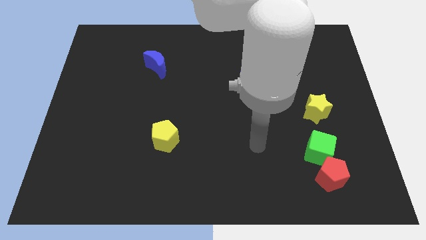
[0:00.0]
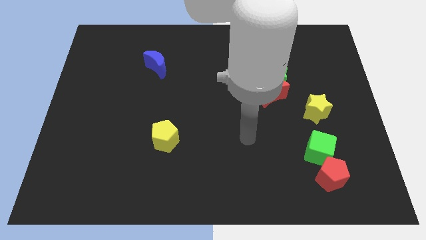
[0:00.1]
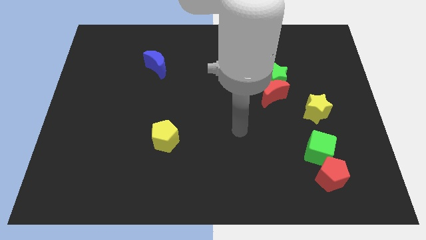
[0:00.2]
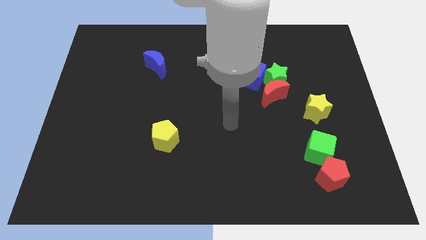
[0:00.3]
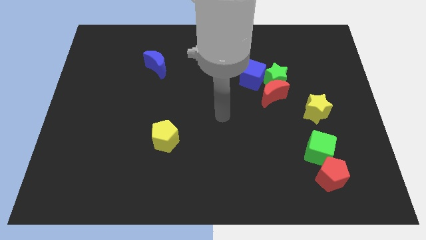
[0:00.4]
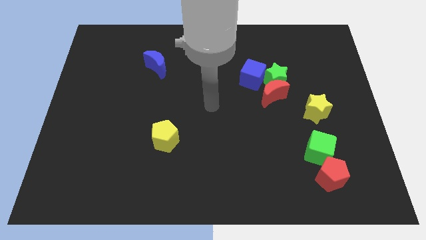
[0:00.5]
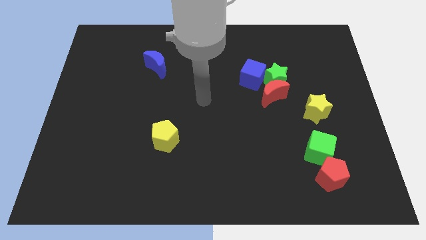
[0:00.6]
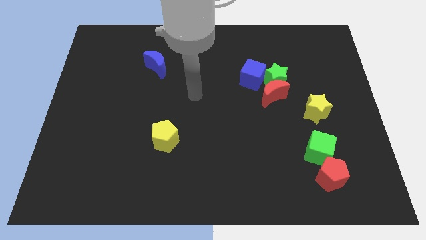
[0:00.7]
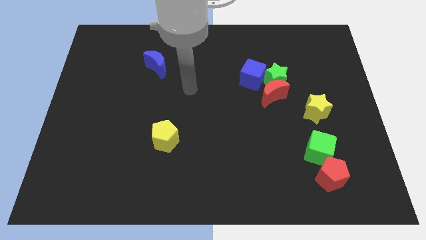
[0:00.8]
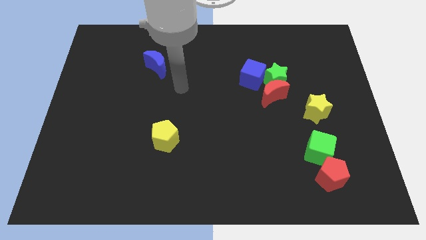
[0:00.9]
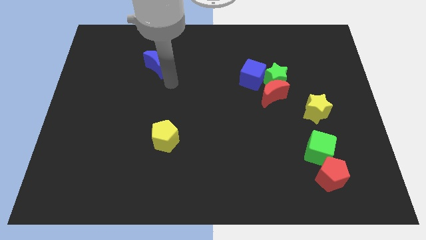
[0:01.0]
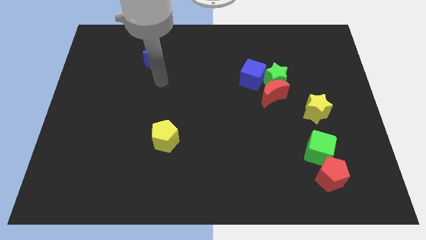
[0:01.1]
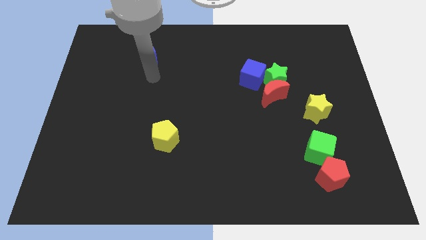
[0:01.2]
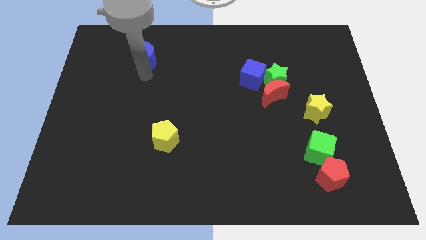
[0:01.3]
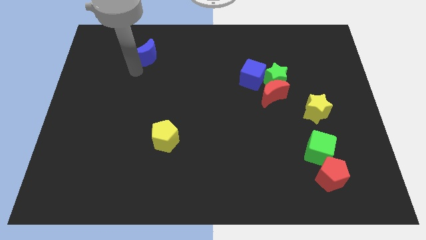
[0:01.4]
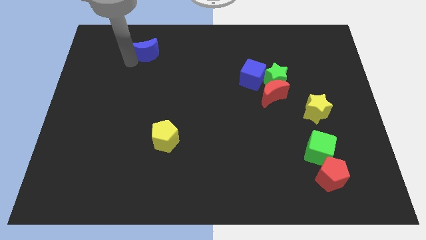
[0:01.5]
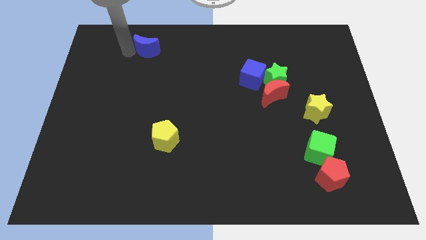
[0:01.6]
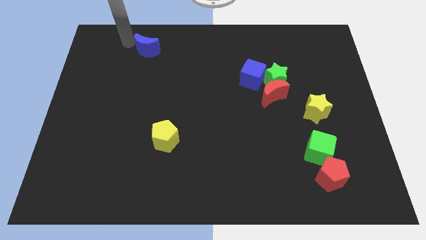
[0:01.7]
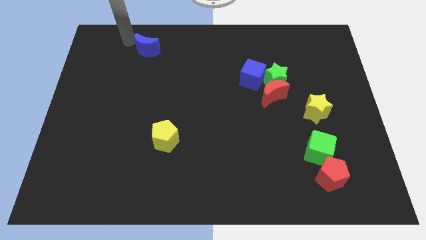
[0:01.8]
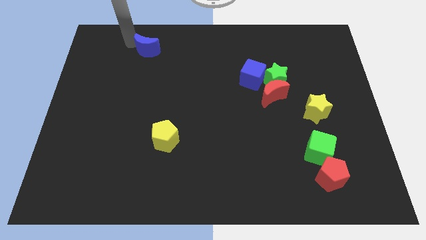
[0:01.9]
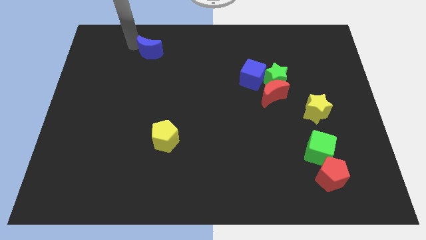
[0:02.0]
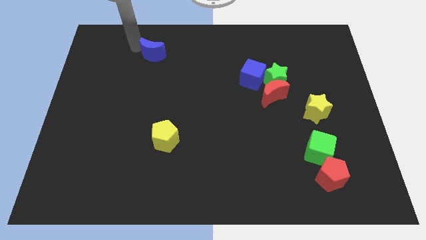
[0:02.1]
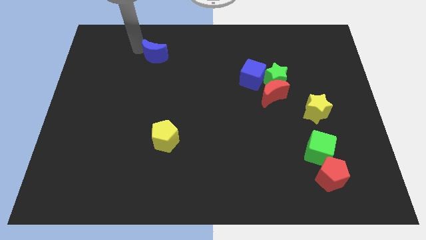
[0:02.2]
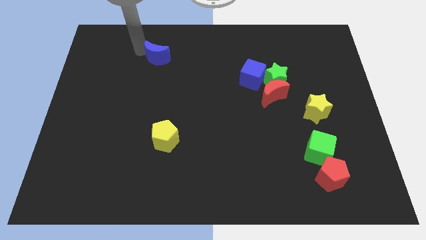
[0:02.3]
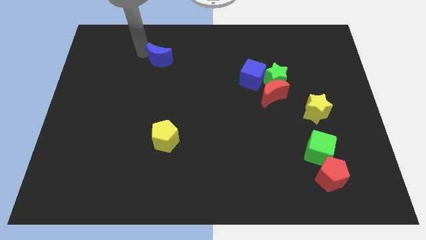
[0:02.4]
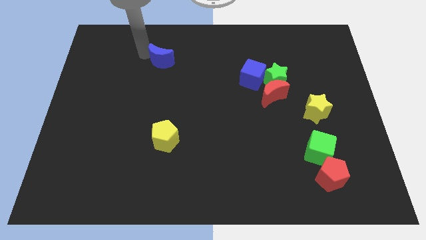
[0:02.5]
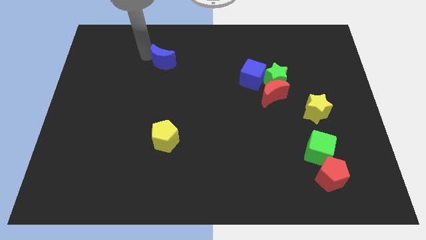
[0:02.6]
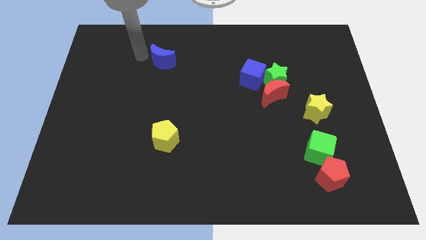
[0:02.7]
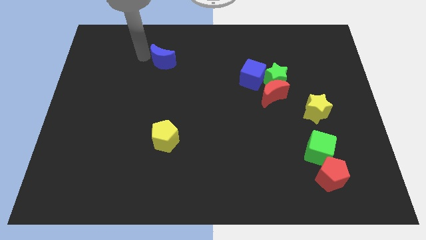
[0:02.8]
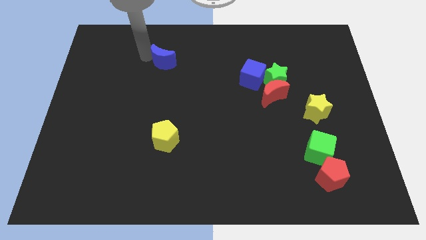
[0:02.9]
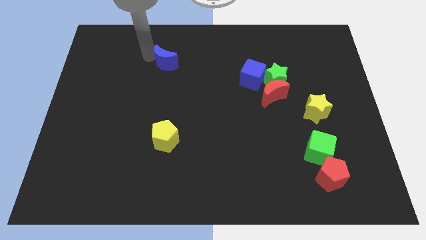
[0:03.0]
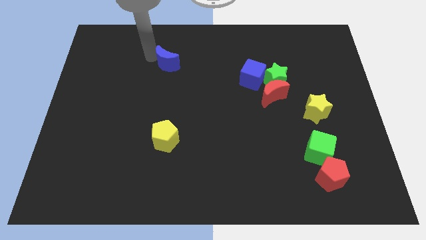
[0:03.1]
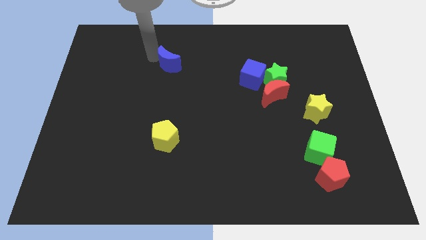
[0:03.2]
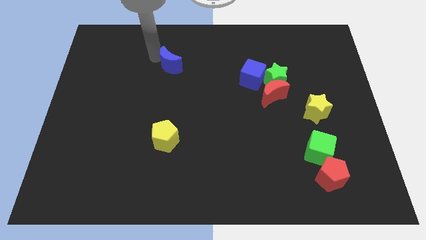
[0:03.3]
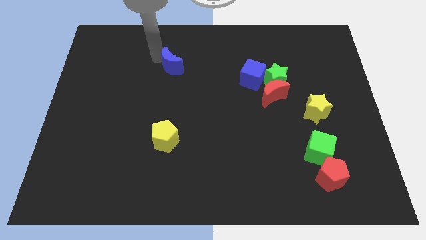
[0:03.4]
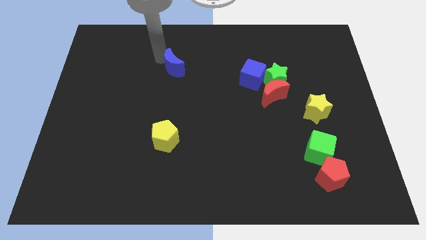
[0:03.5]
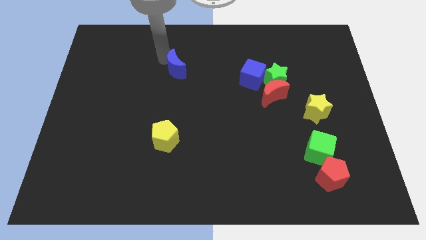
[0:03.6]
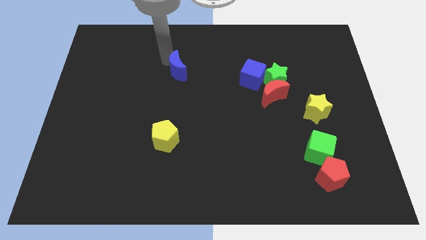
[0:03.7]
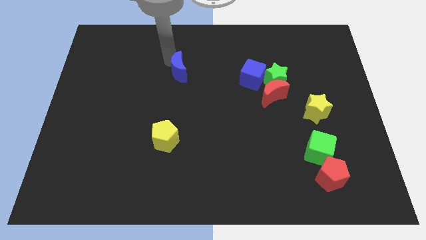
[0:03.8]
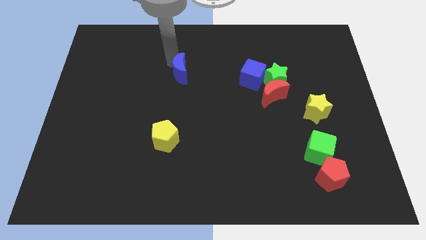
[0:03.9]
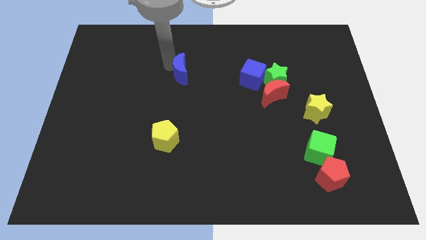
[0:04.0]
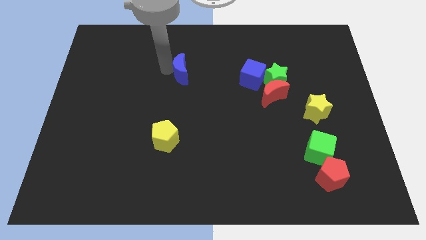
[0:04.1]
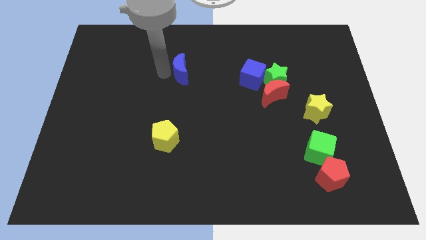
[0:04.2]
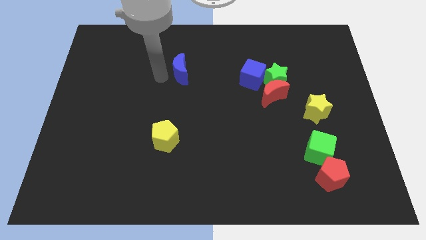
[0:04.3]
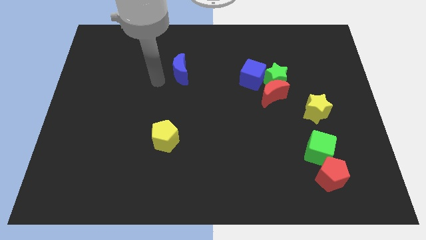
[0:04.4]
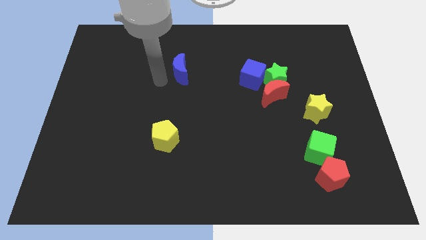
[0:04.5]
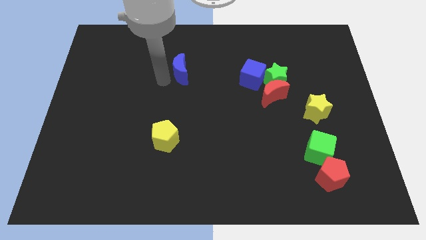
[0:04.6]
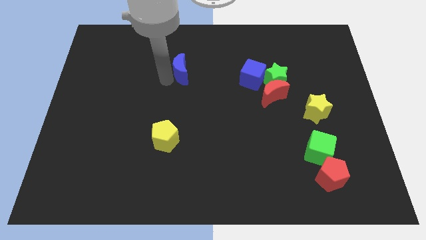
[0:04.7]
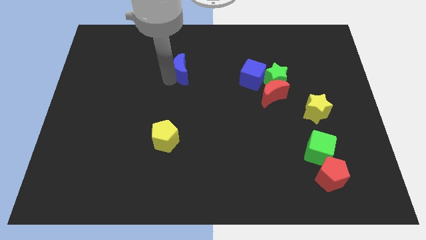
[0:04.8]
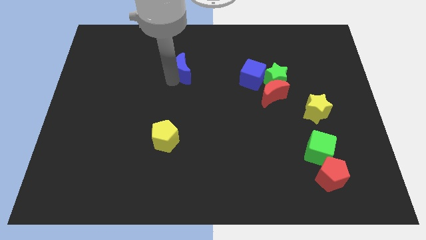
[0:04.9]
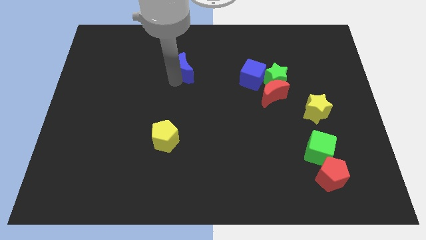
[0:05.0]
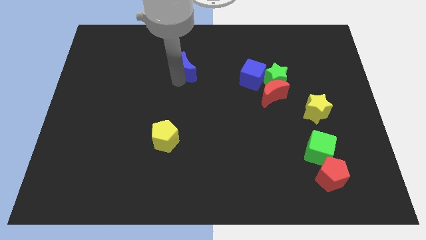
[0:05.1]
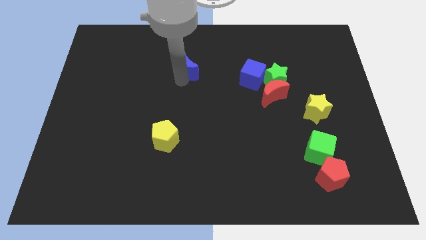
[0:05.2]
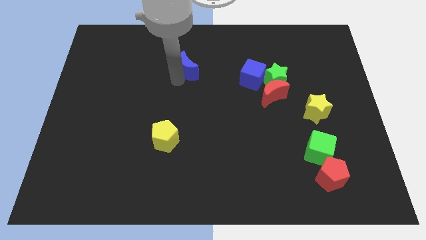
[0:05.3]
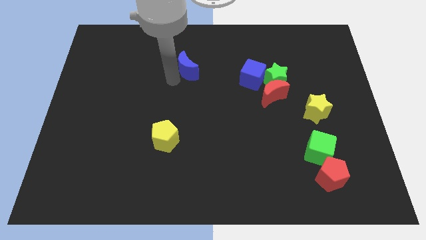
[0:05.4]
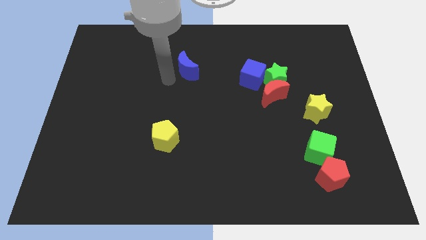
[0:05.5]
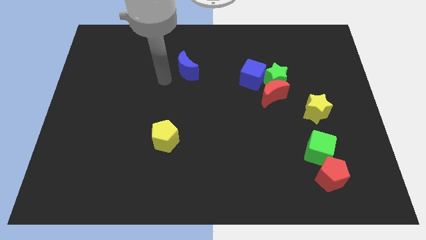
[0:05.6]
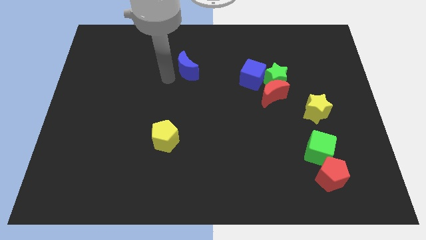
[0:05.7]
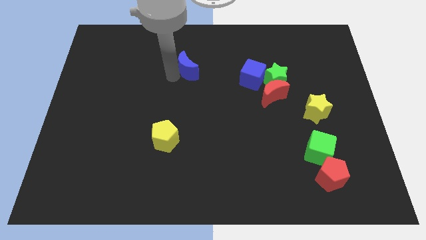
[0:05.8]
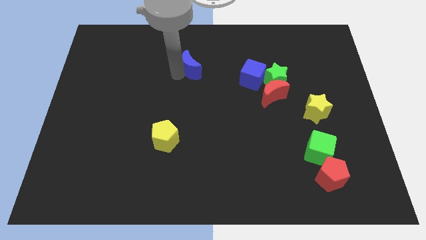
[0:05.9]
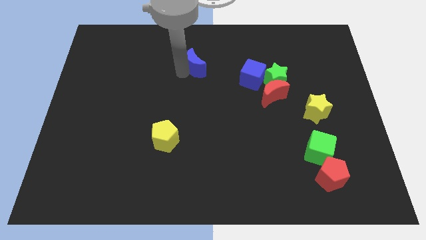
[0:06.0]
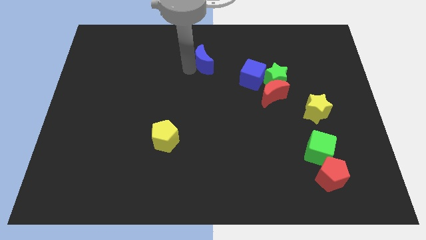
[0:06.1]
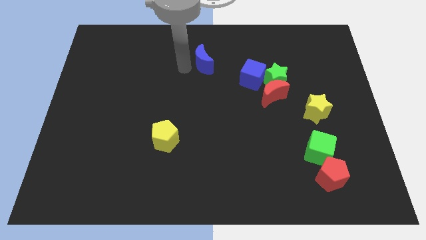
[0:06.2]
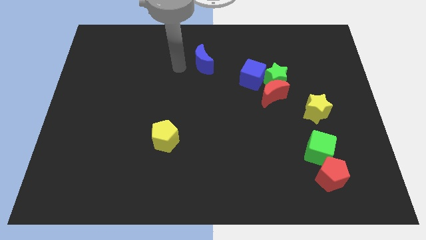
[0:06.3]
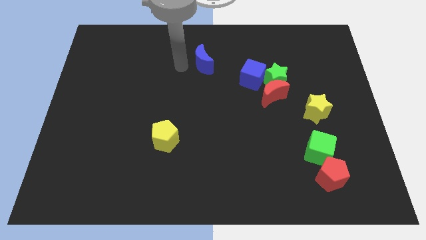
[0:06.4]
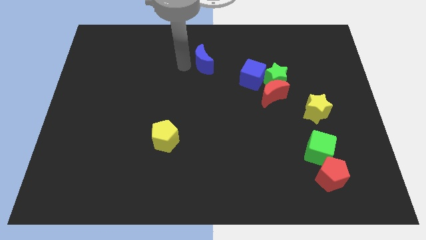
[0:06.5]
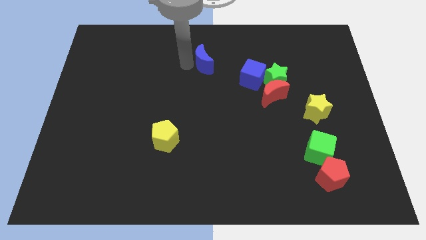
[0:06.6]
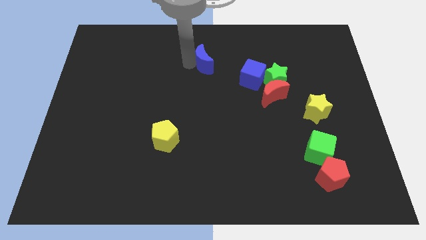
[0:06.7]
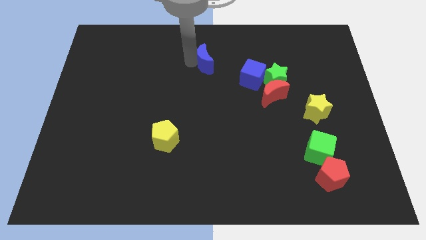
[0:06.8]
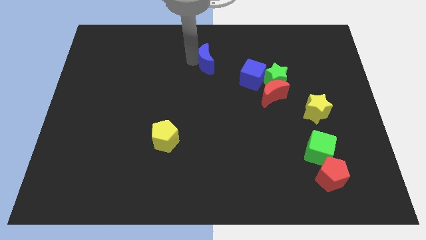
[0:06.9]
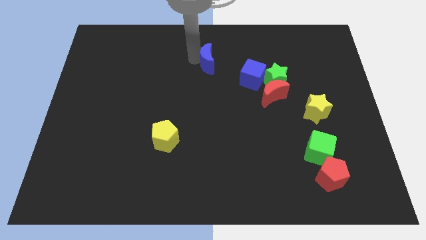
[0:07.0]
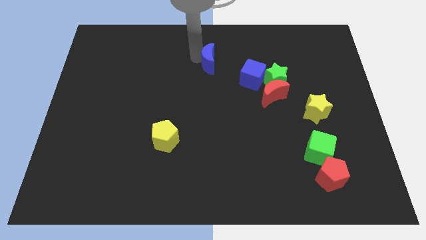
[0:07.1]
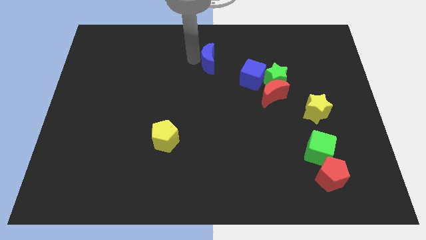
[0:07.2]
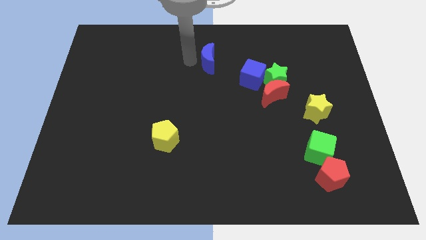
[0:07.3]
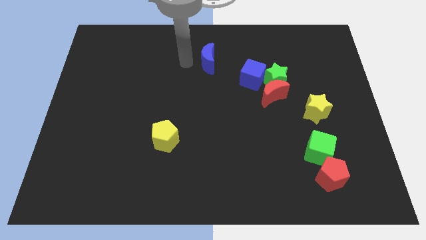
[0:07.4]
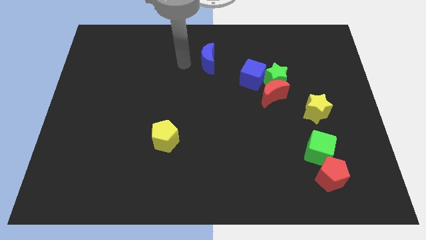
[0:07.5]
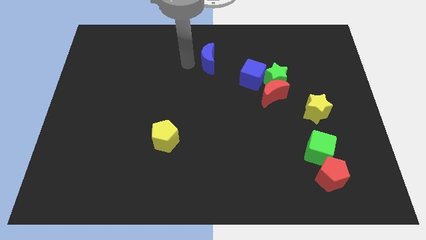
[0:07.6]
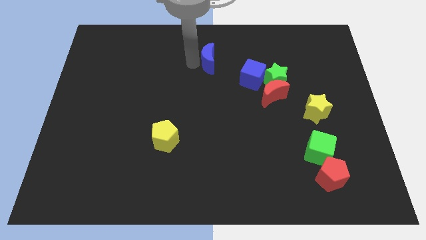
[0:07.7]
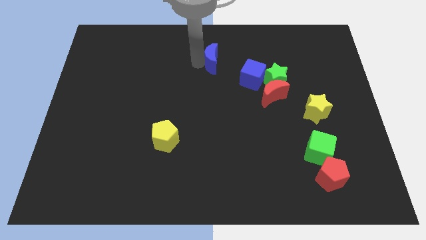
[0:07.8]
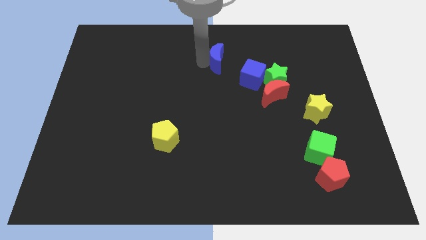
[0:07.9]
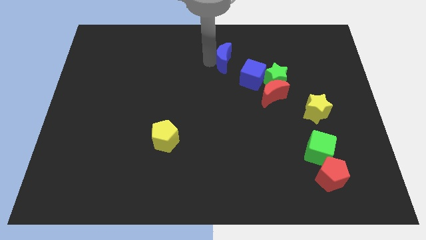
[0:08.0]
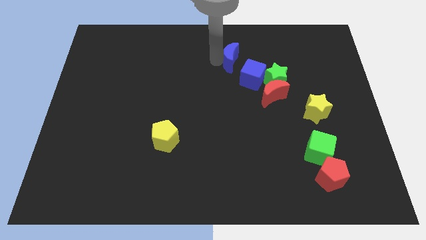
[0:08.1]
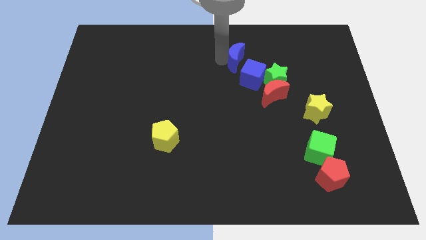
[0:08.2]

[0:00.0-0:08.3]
slide the blue moon to the right
